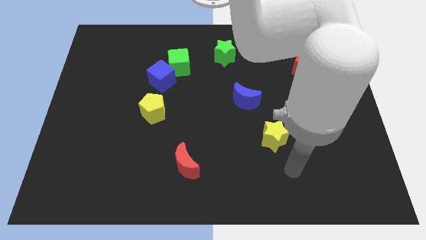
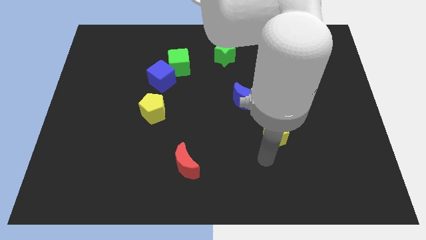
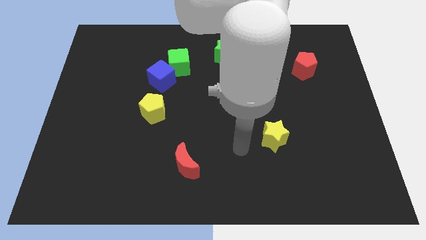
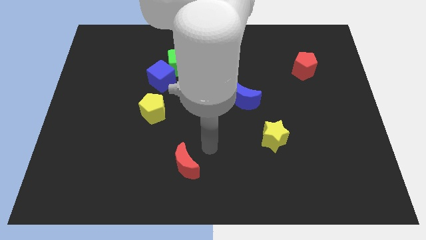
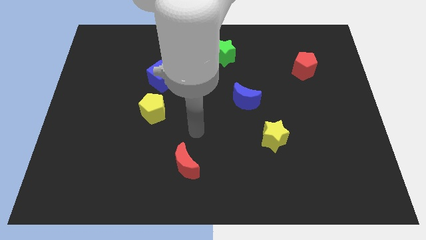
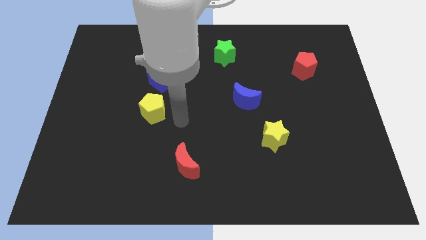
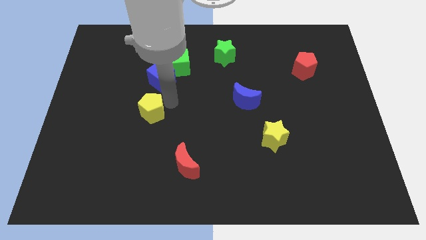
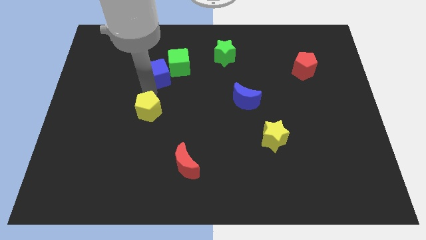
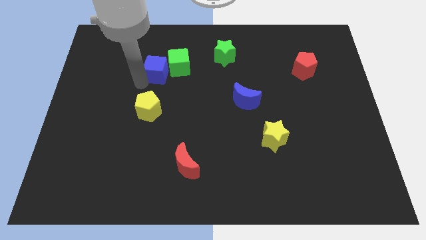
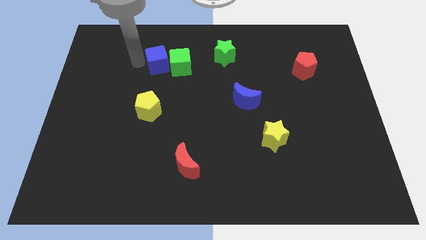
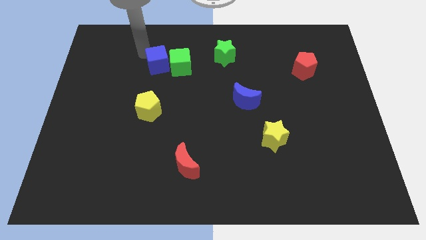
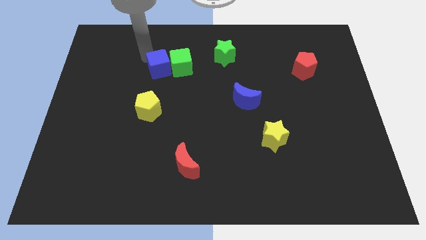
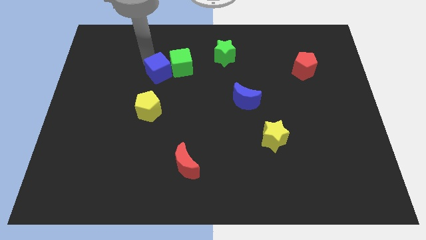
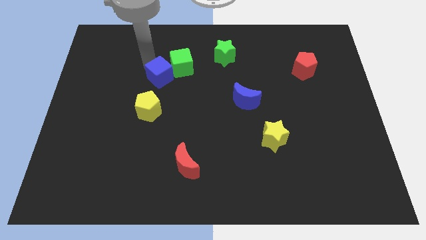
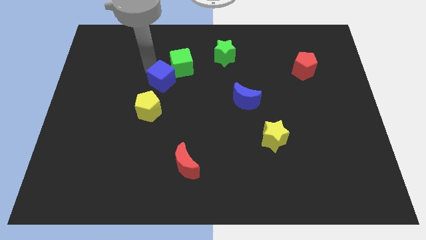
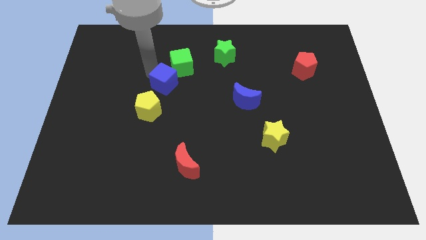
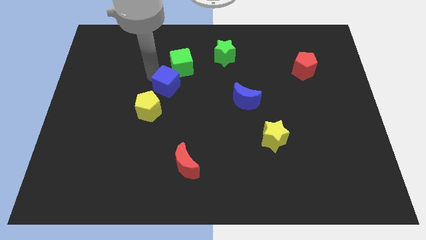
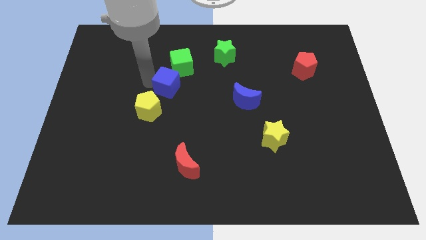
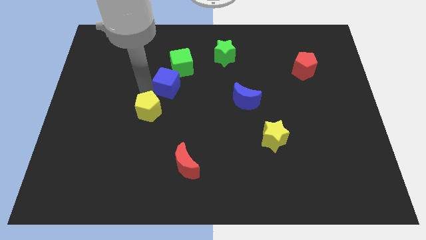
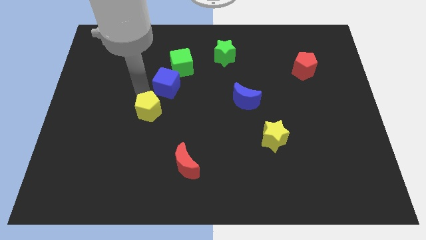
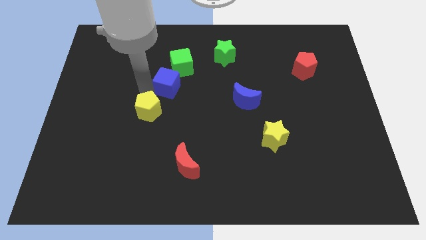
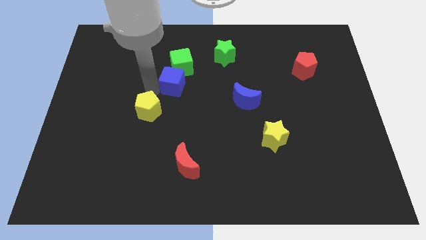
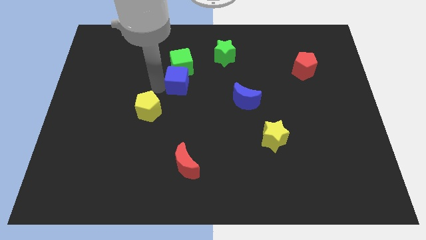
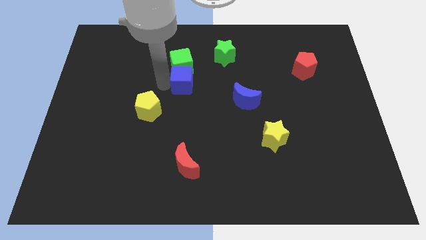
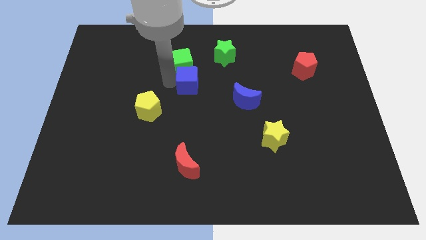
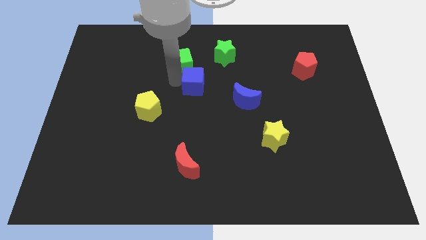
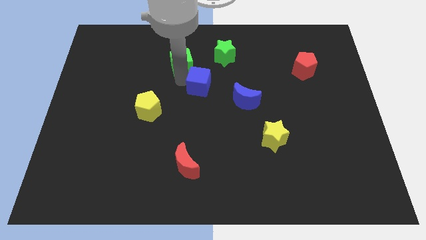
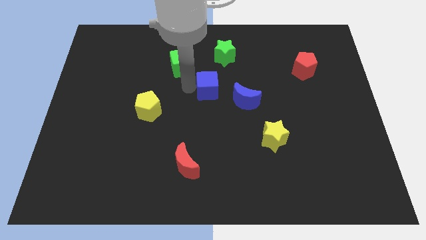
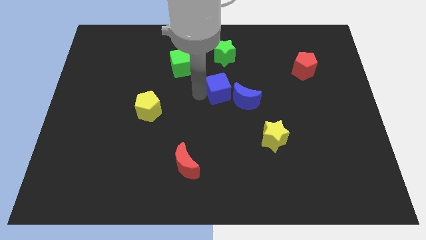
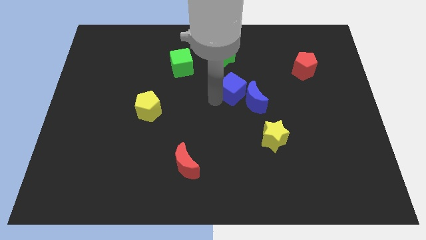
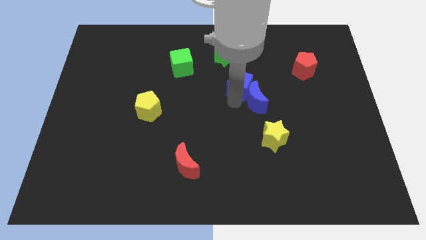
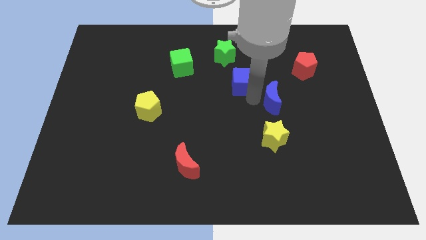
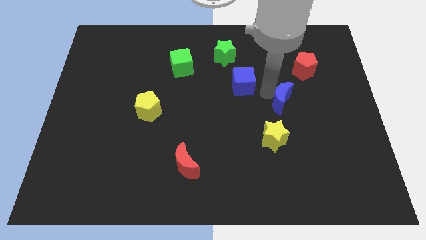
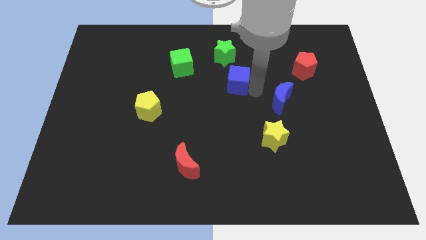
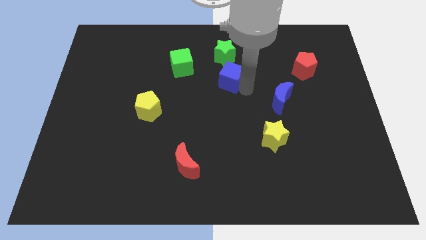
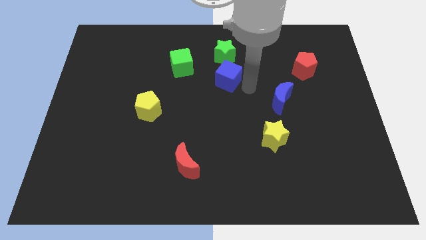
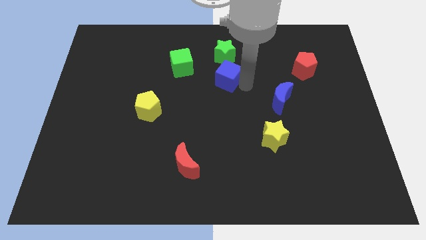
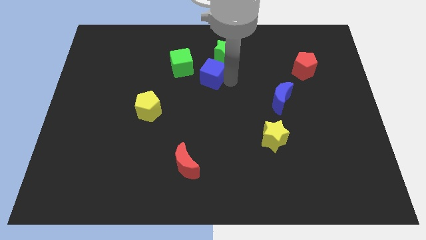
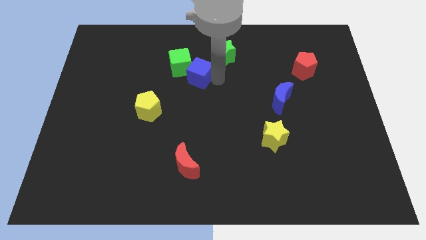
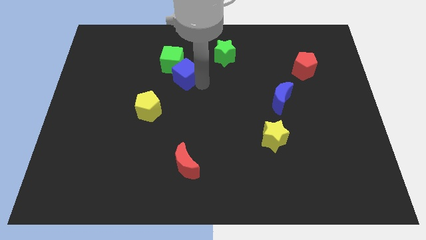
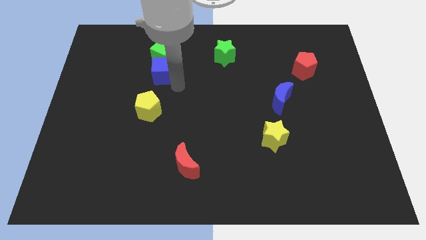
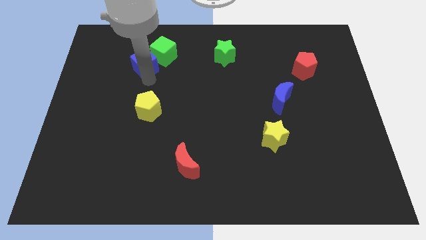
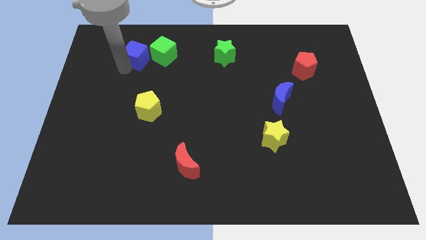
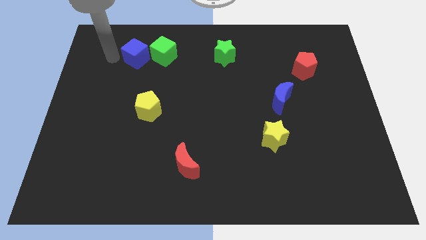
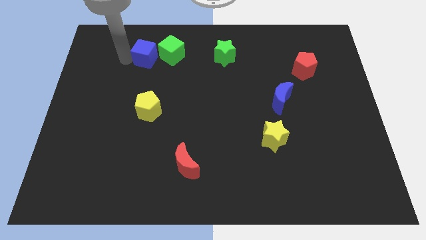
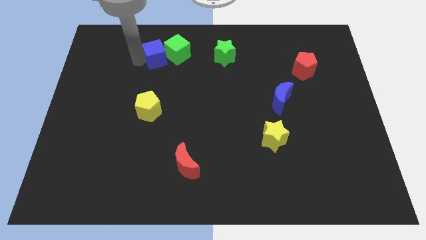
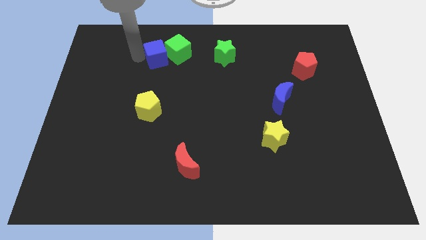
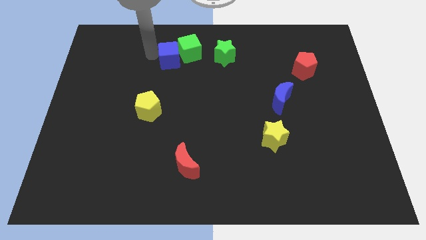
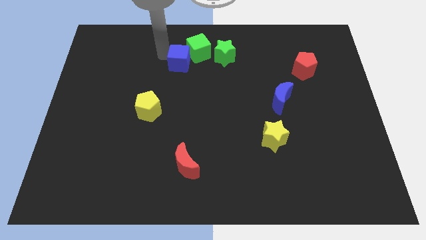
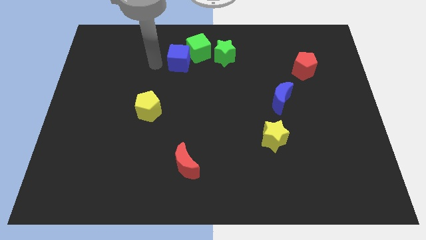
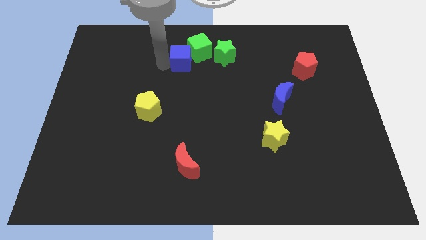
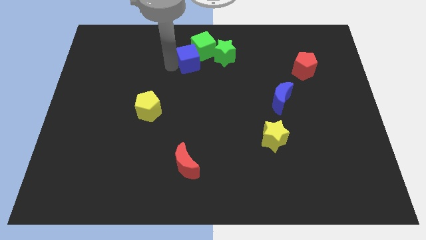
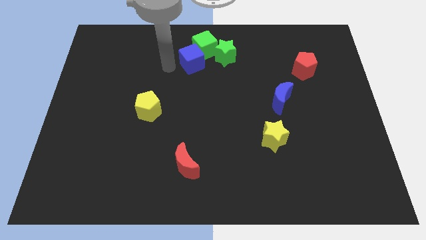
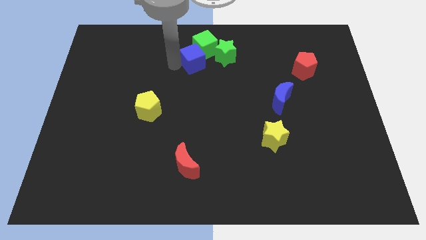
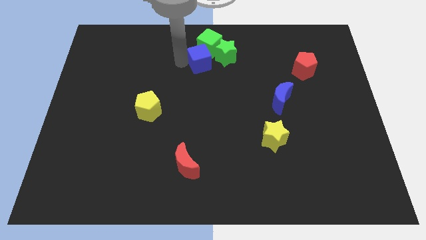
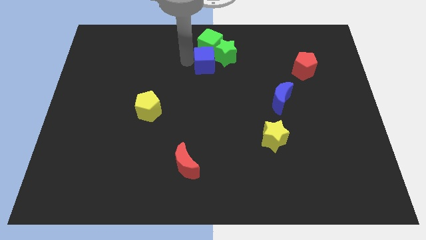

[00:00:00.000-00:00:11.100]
slide the blue cube next to the green star

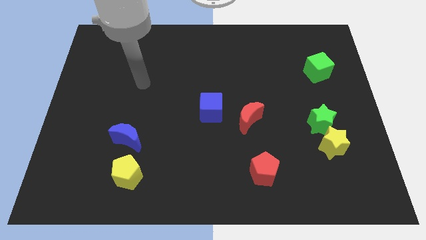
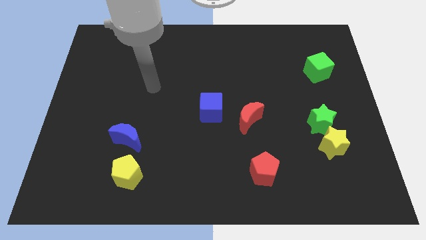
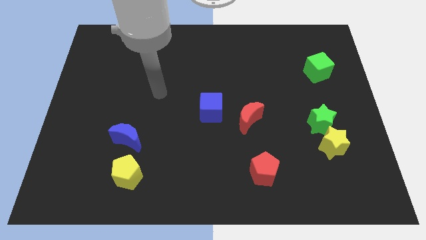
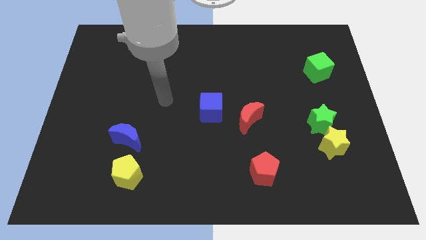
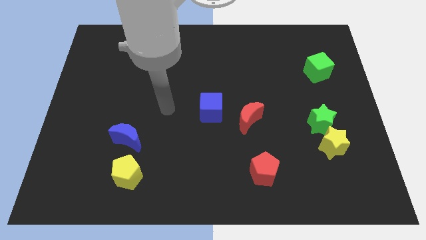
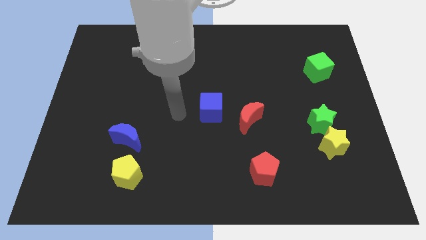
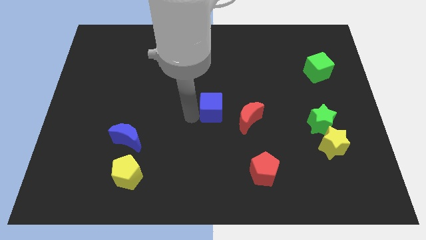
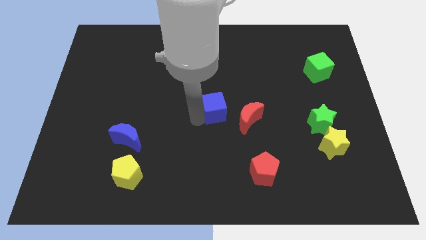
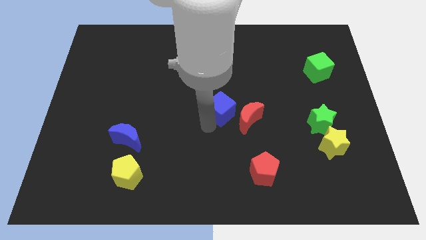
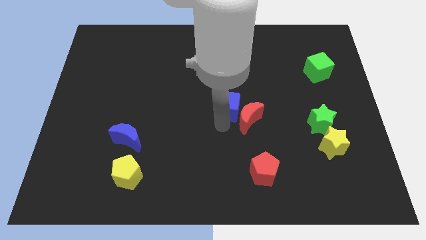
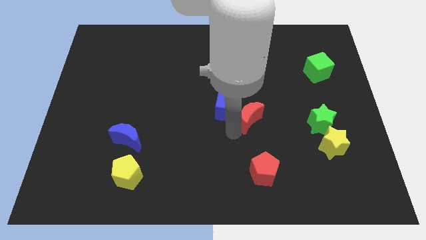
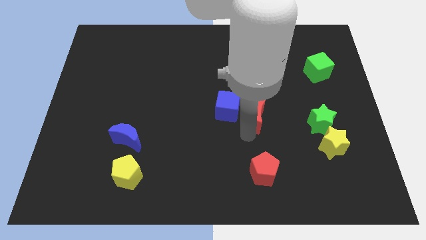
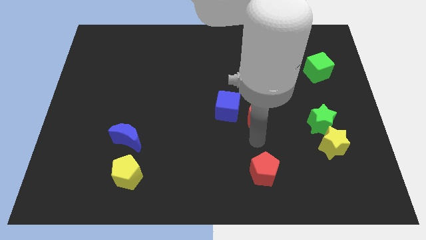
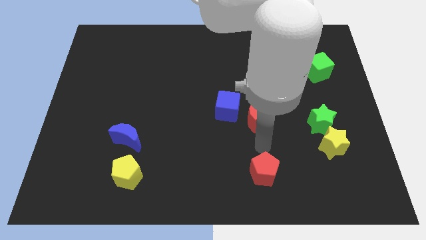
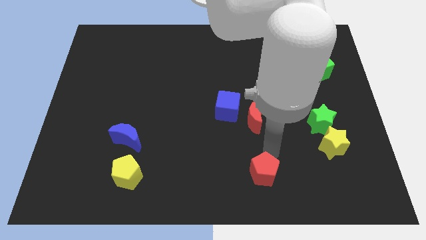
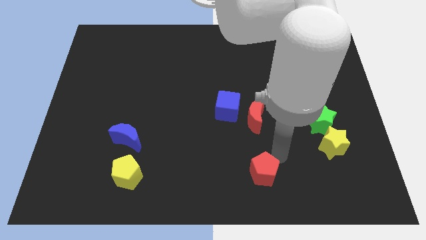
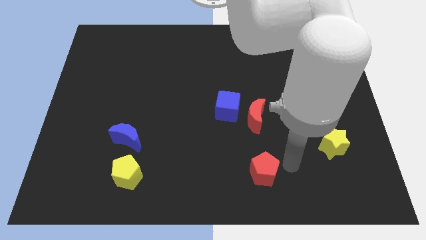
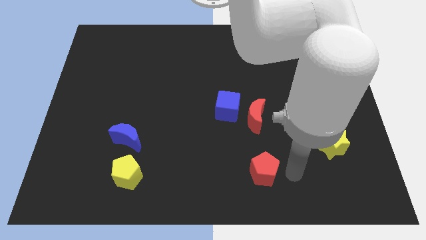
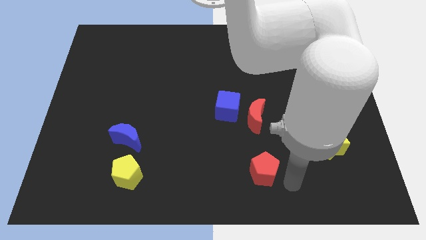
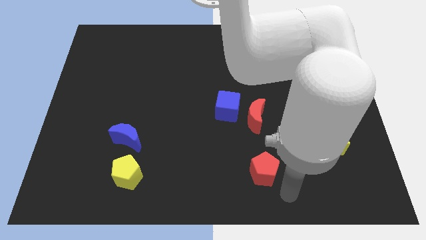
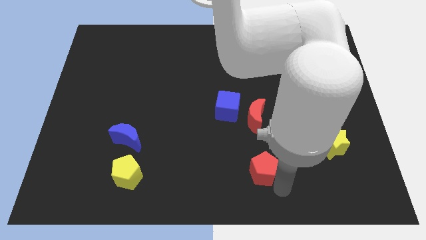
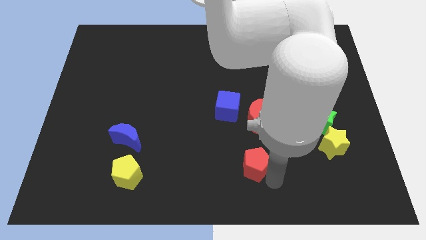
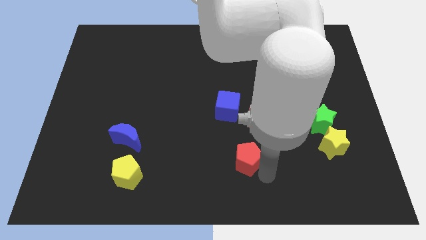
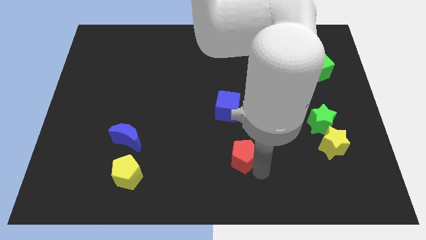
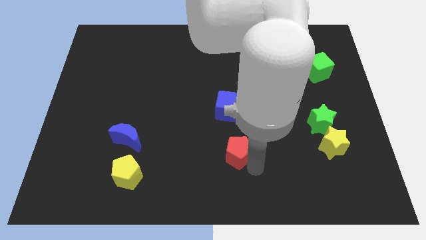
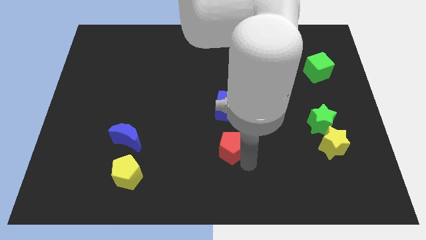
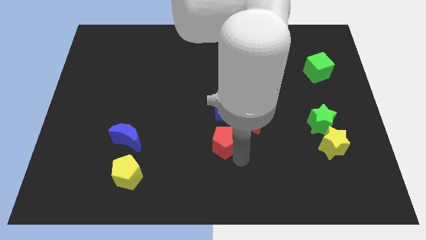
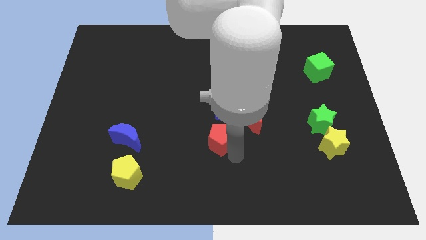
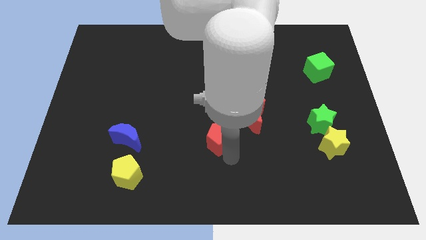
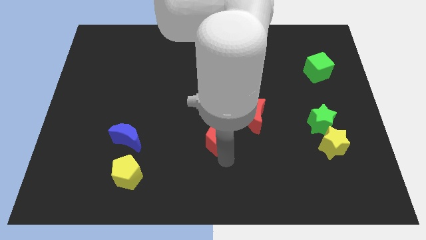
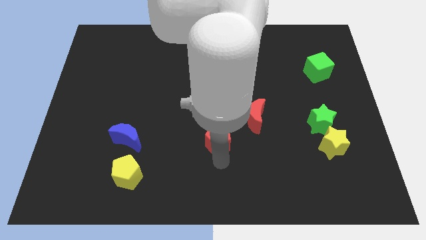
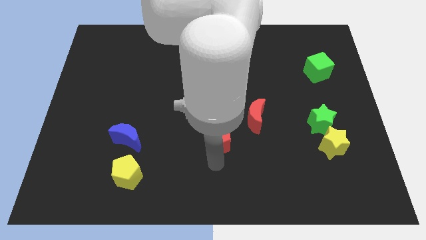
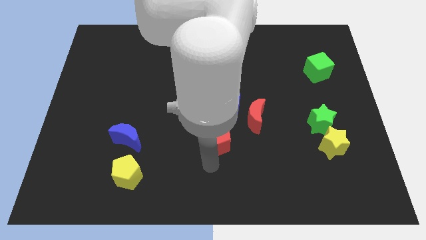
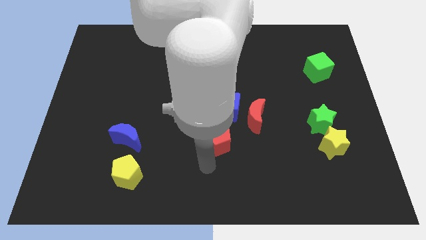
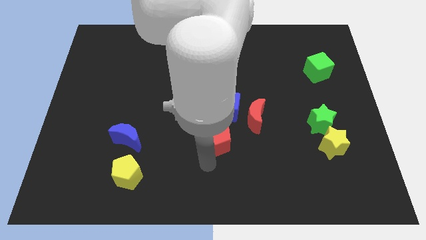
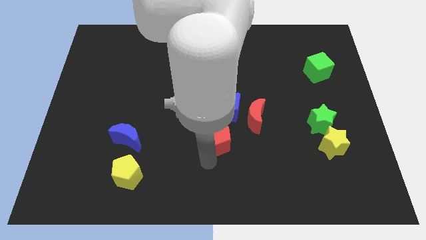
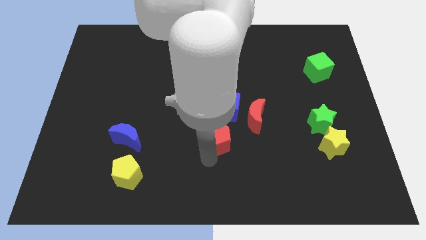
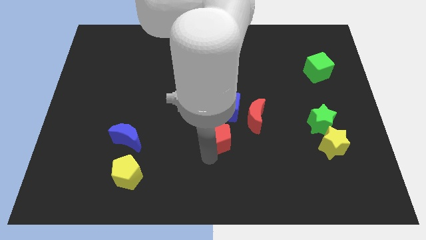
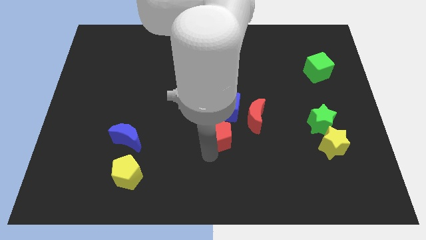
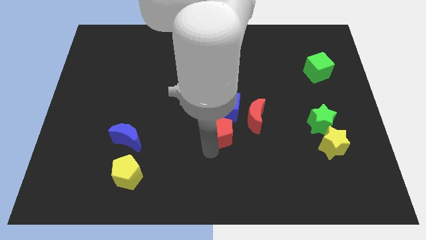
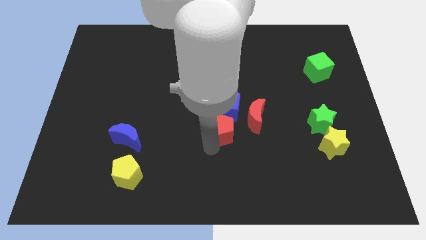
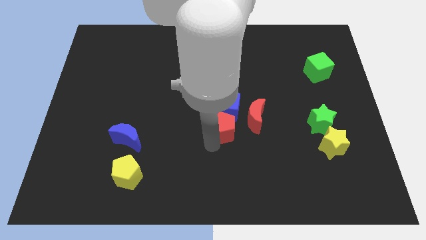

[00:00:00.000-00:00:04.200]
push the red pentagon to the blue cube
